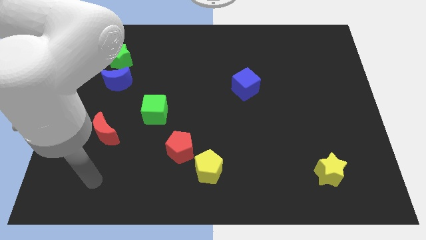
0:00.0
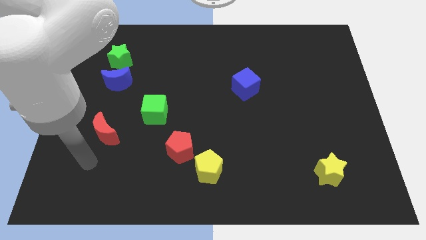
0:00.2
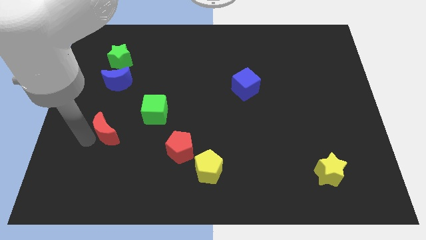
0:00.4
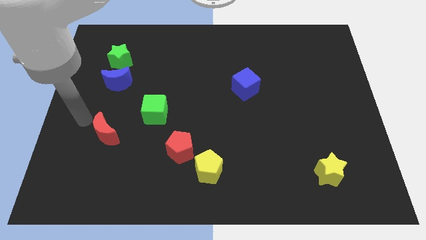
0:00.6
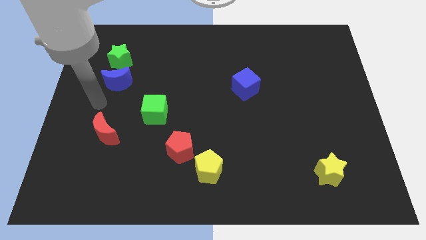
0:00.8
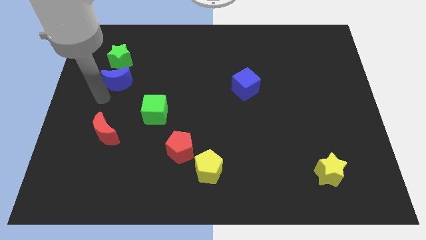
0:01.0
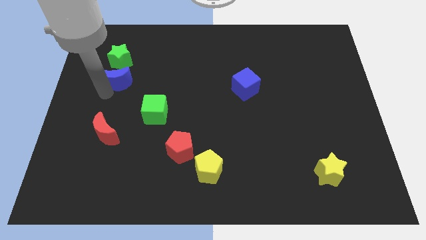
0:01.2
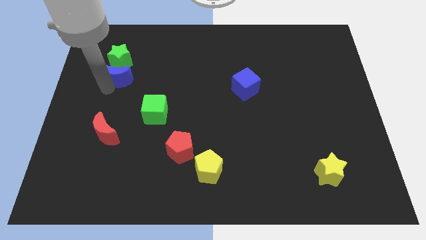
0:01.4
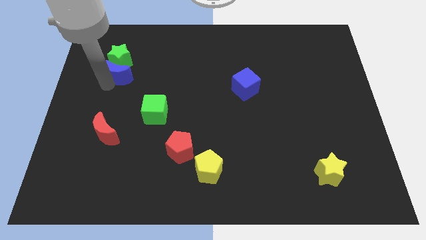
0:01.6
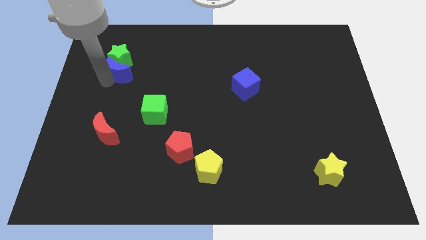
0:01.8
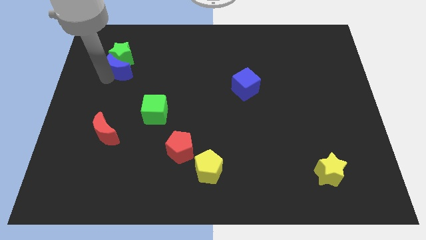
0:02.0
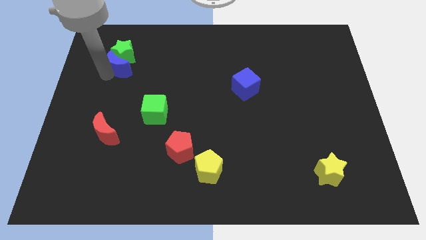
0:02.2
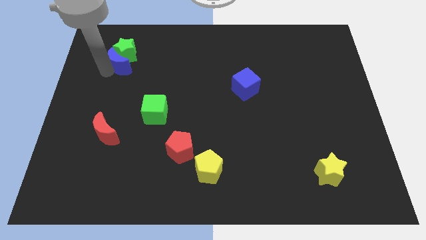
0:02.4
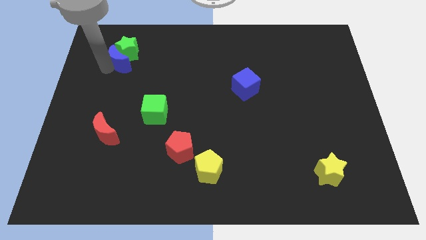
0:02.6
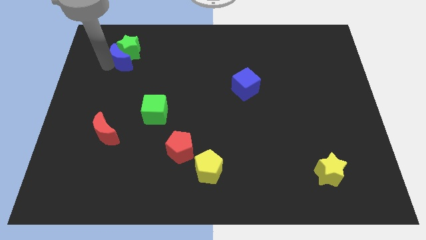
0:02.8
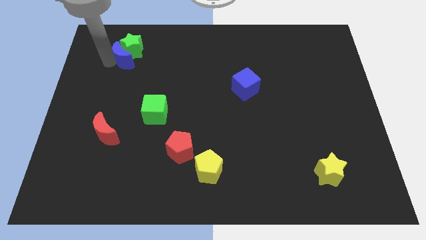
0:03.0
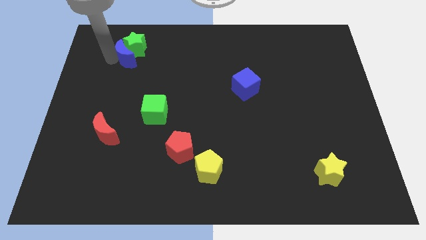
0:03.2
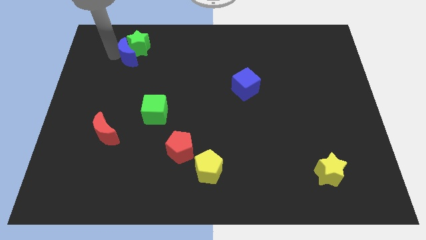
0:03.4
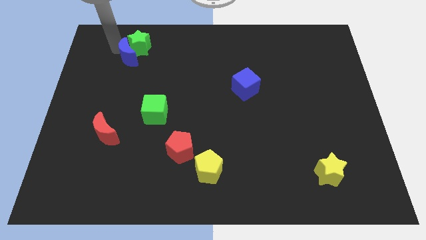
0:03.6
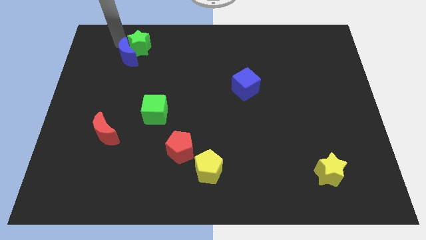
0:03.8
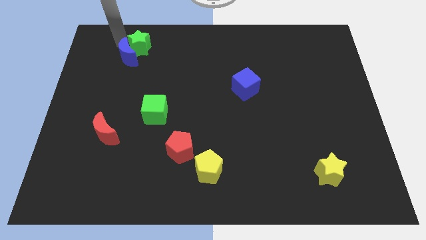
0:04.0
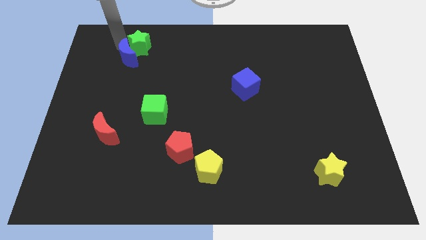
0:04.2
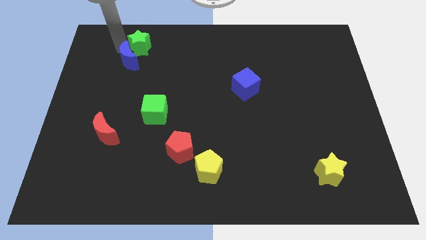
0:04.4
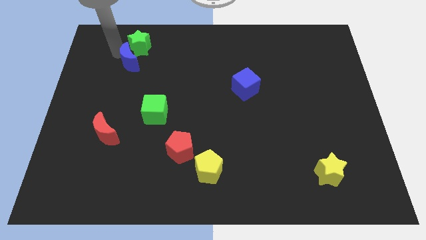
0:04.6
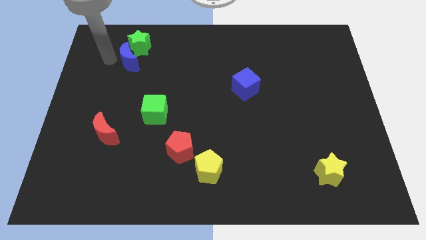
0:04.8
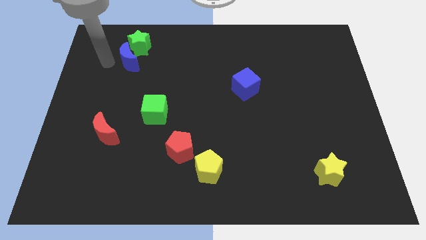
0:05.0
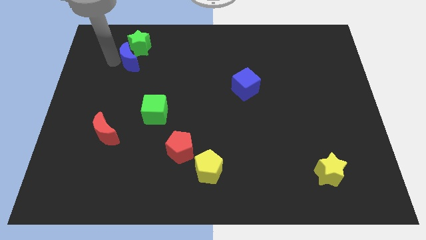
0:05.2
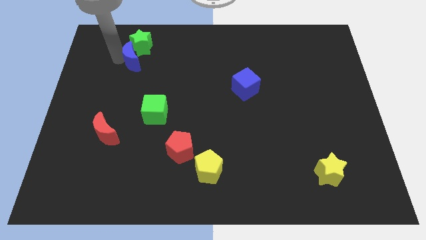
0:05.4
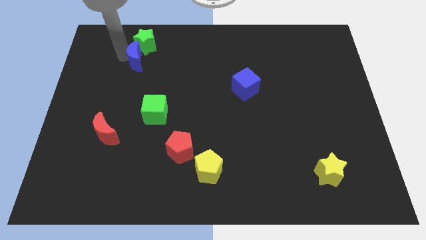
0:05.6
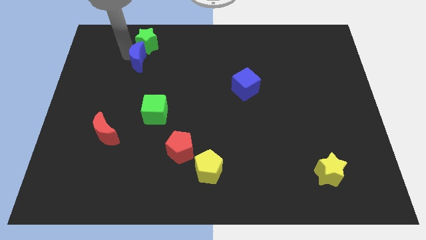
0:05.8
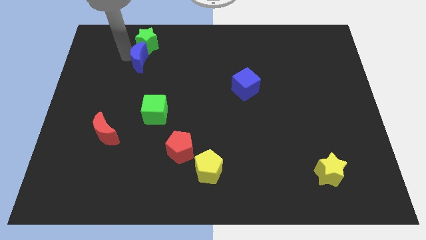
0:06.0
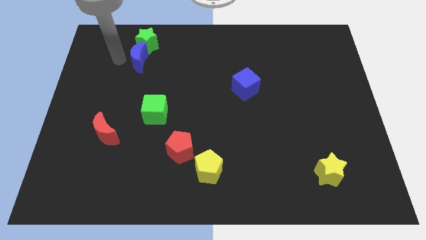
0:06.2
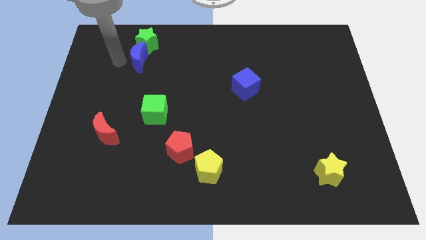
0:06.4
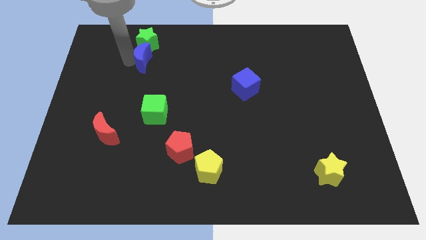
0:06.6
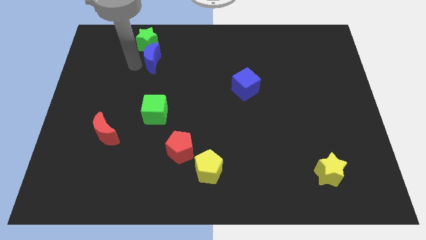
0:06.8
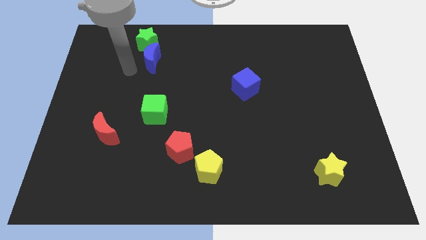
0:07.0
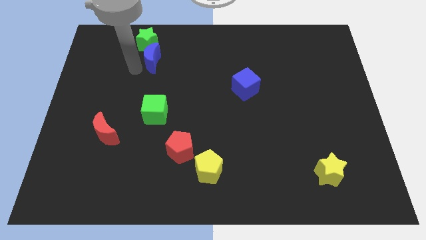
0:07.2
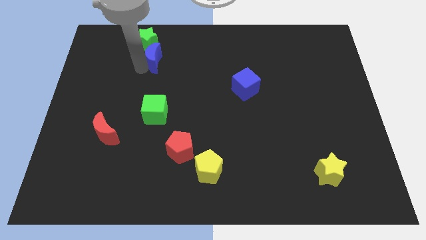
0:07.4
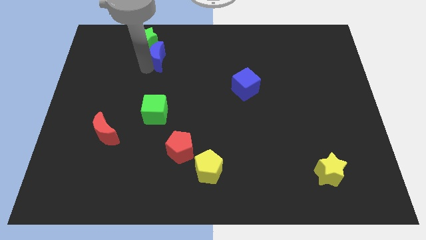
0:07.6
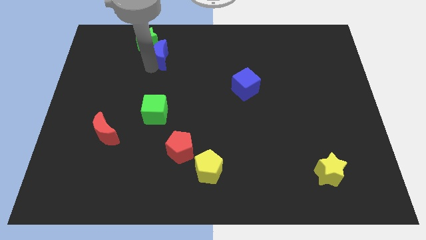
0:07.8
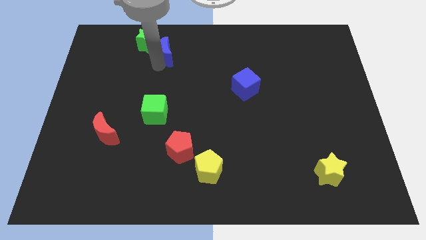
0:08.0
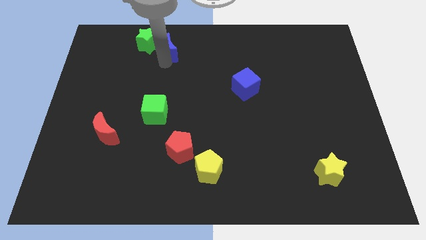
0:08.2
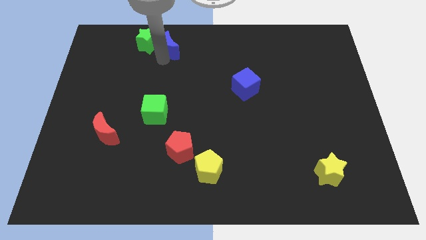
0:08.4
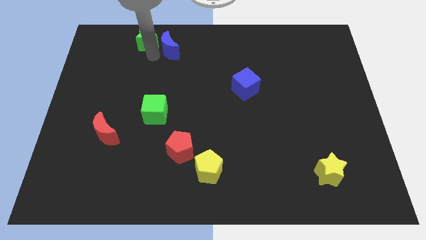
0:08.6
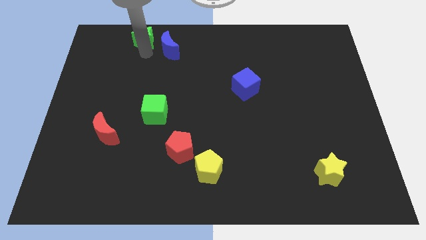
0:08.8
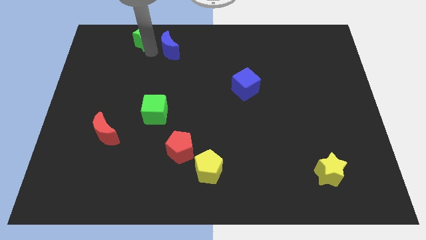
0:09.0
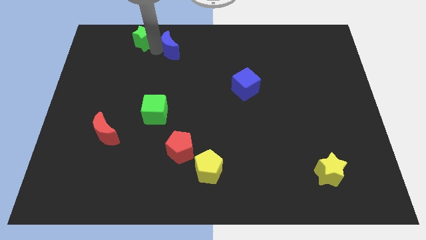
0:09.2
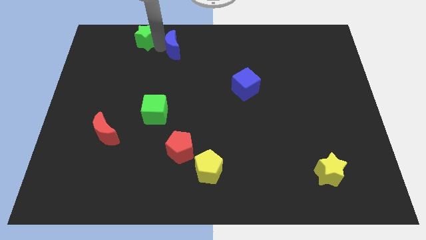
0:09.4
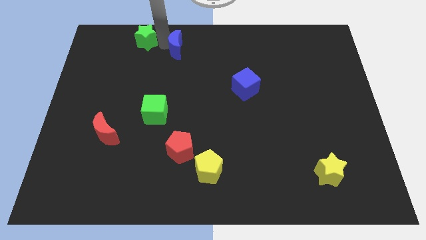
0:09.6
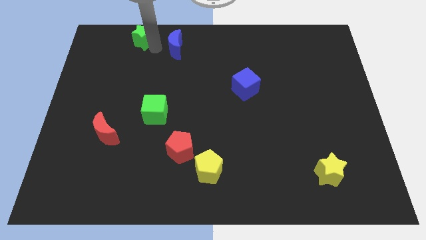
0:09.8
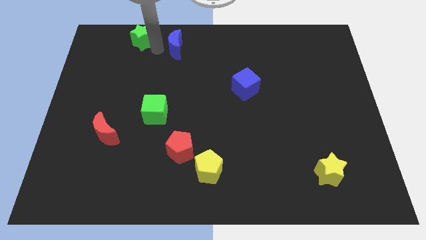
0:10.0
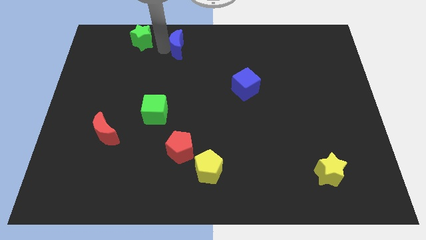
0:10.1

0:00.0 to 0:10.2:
put the blue moon to the towards your base
